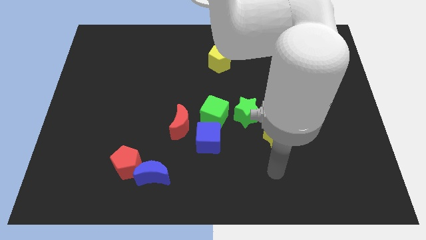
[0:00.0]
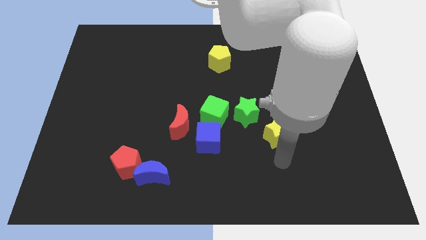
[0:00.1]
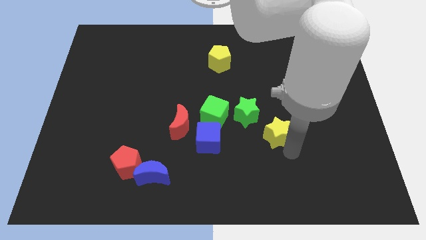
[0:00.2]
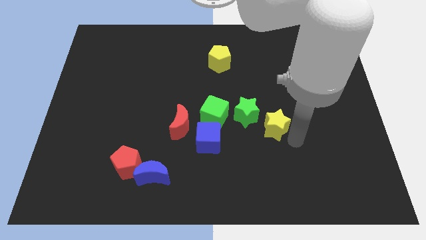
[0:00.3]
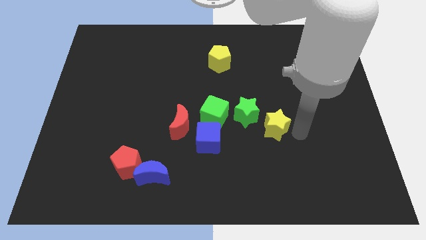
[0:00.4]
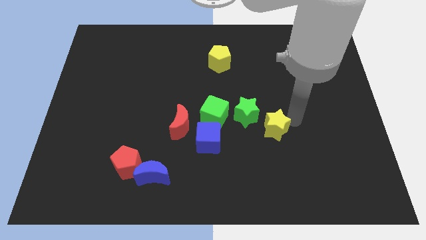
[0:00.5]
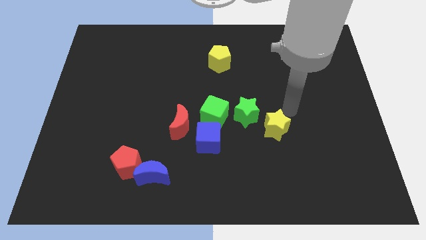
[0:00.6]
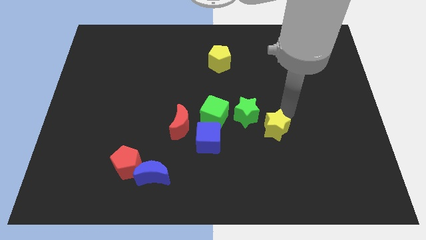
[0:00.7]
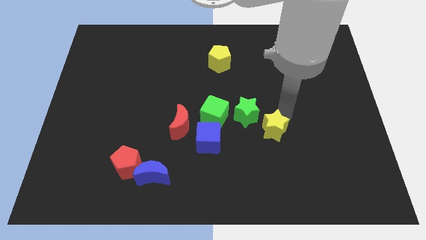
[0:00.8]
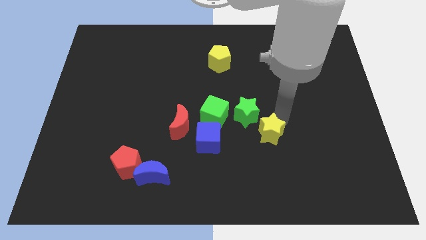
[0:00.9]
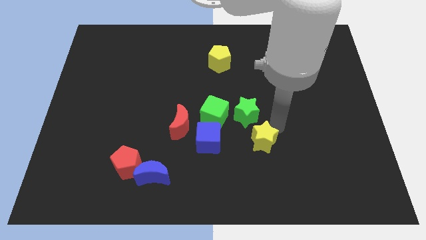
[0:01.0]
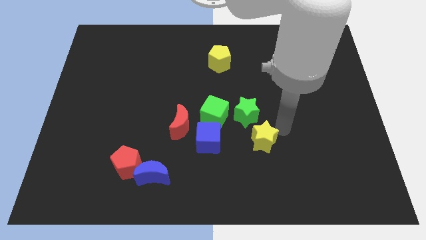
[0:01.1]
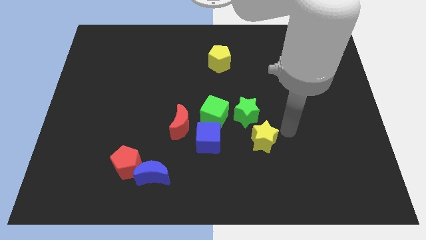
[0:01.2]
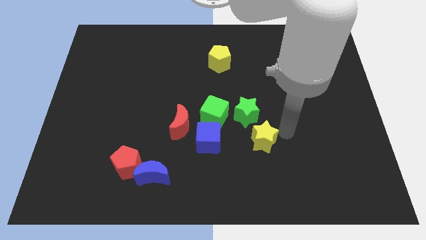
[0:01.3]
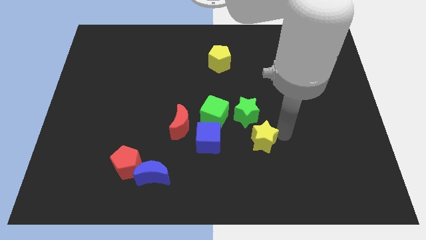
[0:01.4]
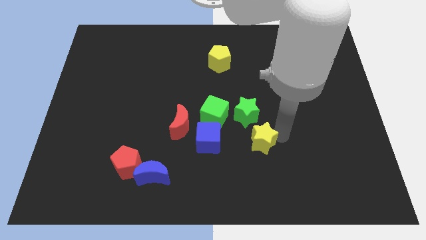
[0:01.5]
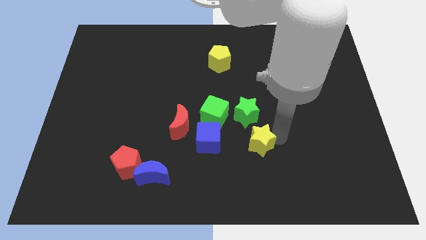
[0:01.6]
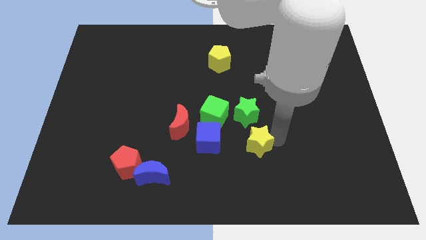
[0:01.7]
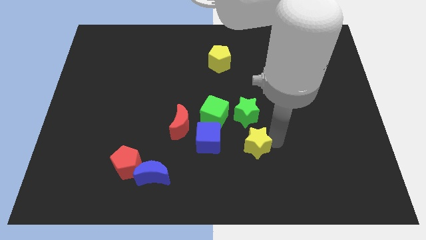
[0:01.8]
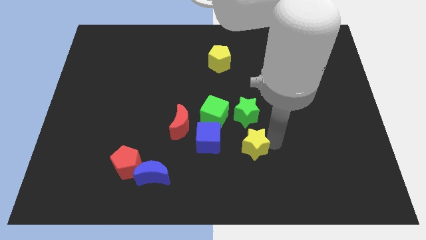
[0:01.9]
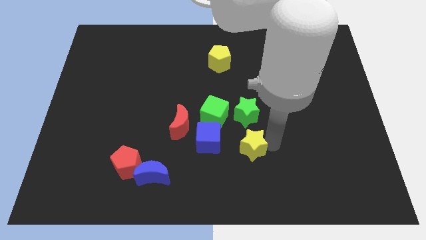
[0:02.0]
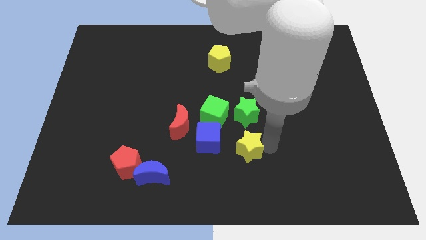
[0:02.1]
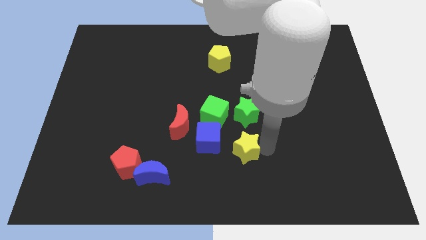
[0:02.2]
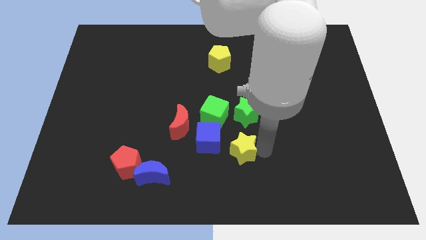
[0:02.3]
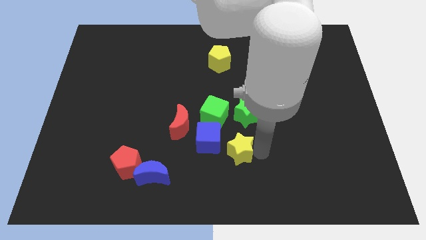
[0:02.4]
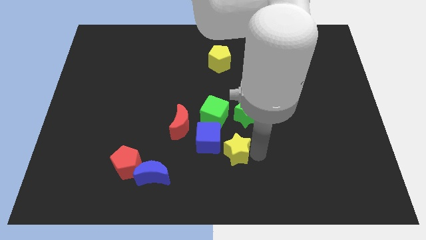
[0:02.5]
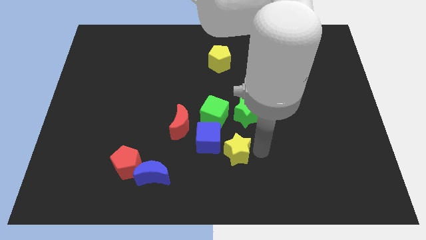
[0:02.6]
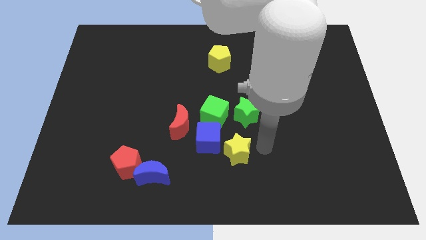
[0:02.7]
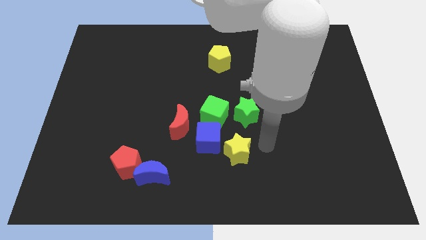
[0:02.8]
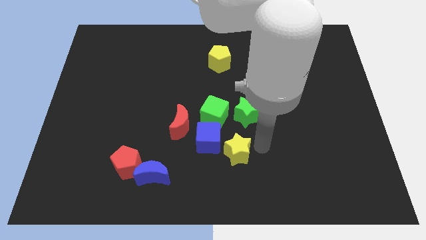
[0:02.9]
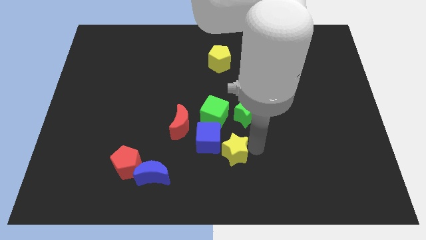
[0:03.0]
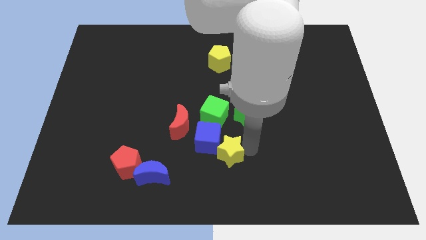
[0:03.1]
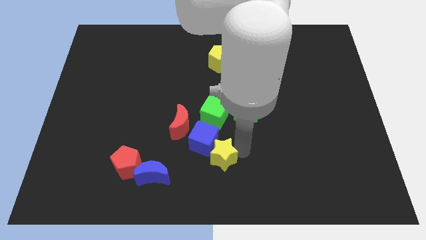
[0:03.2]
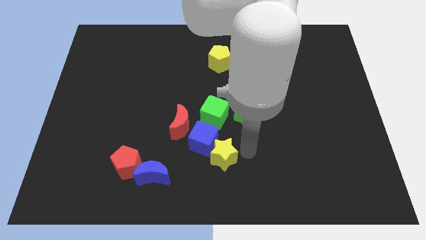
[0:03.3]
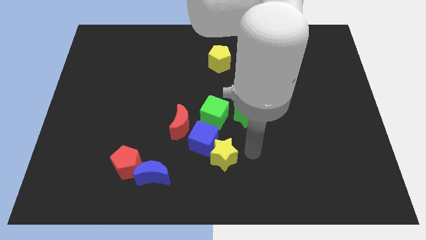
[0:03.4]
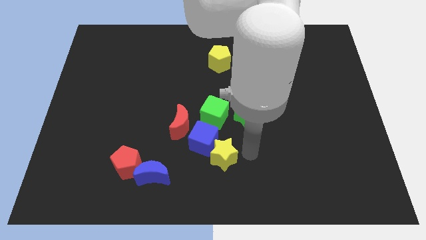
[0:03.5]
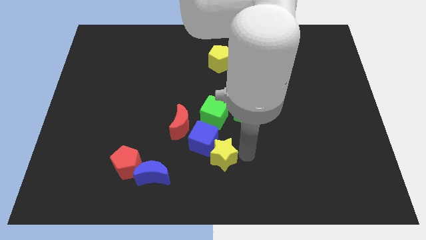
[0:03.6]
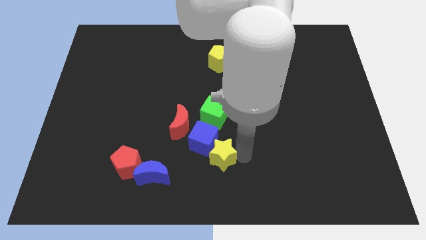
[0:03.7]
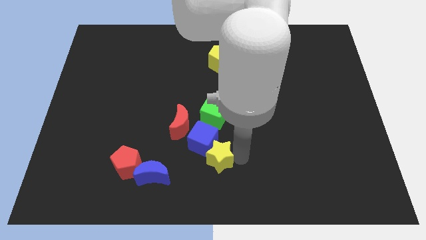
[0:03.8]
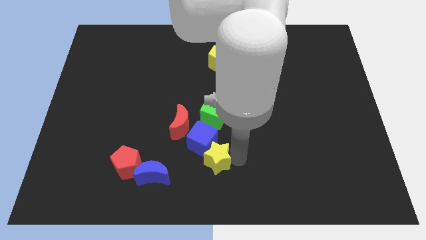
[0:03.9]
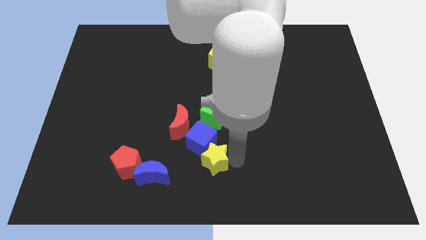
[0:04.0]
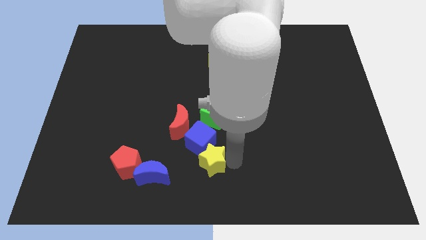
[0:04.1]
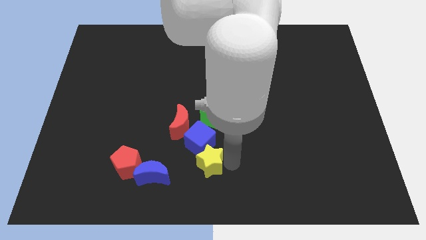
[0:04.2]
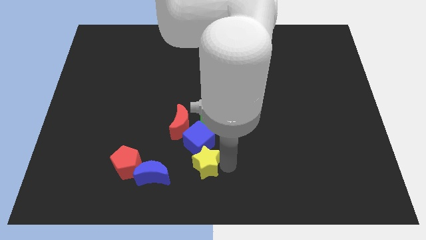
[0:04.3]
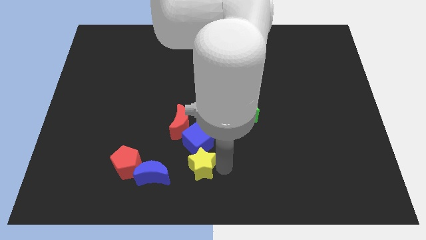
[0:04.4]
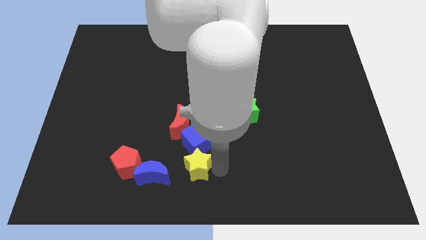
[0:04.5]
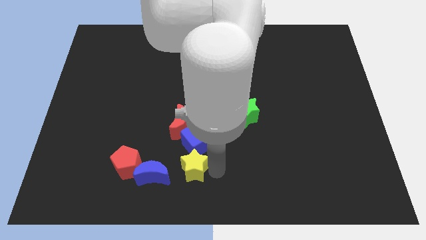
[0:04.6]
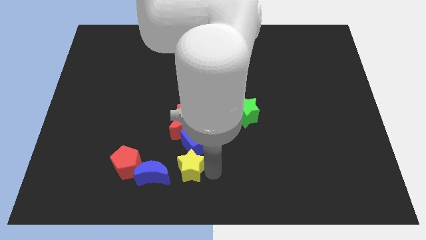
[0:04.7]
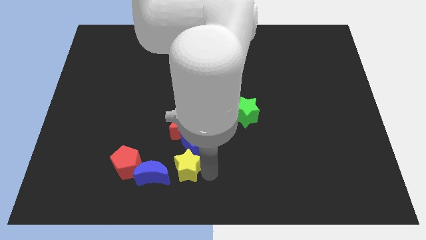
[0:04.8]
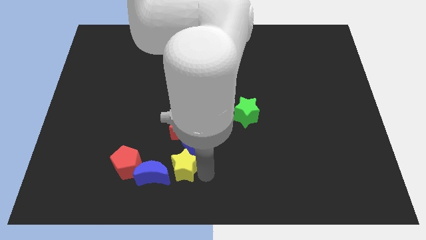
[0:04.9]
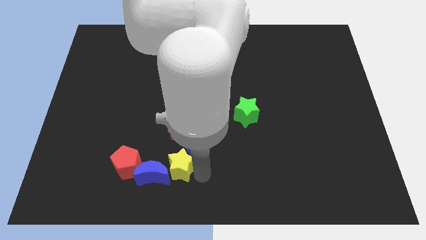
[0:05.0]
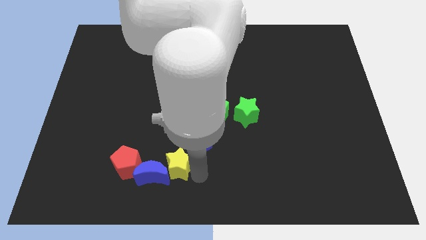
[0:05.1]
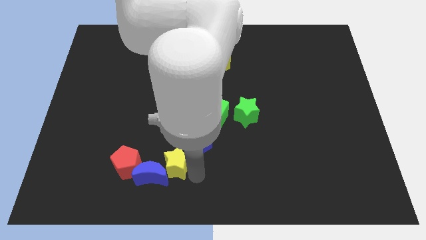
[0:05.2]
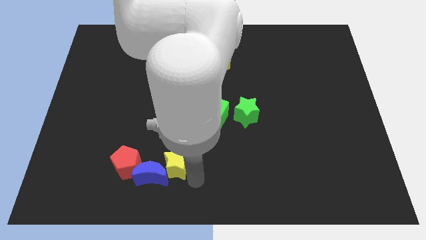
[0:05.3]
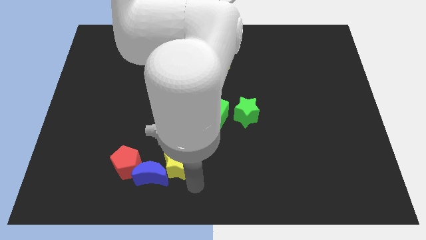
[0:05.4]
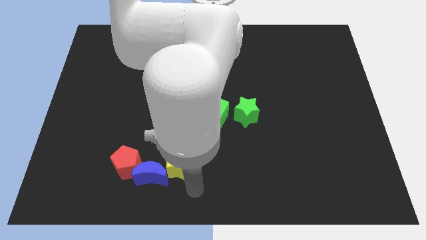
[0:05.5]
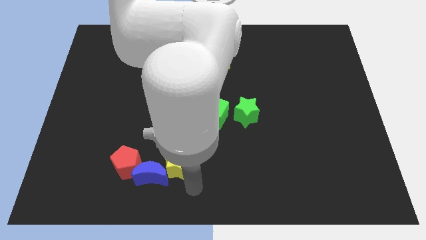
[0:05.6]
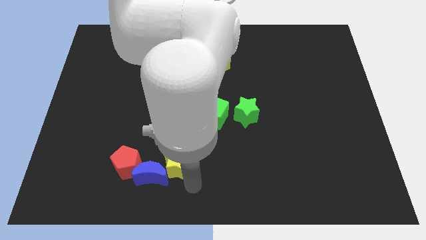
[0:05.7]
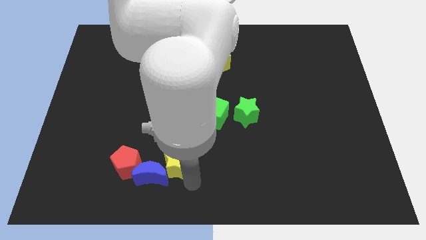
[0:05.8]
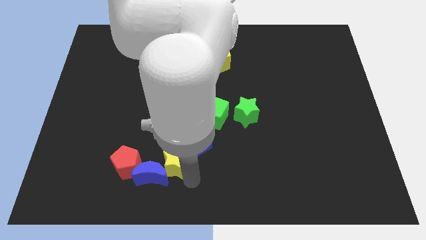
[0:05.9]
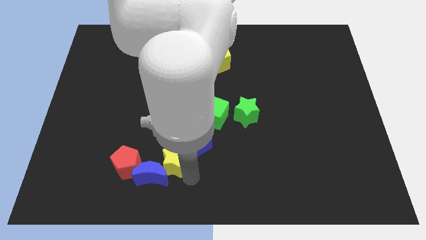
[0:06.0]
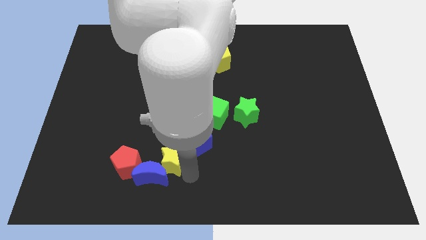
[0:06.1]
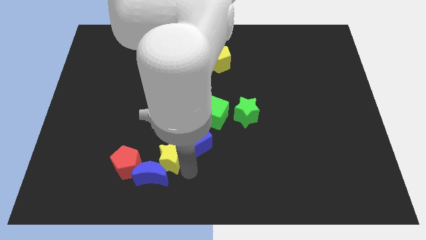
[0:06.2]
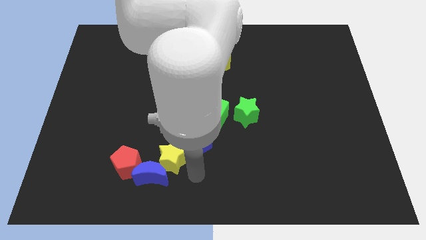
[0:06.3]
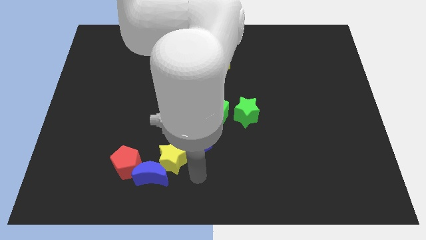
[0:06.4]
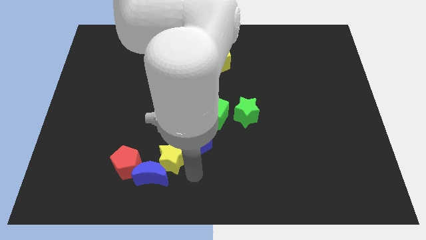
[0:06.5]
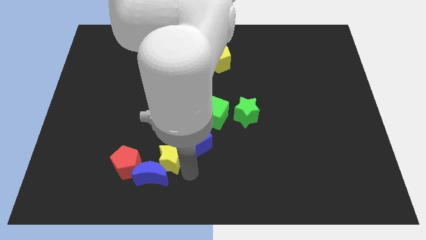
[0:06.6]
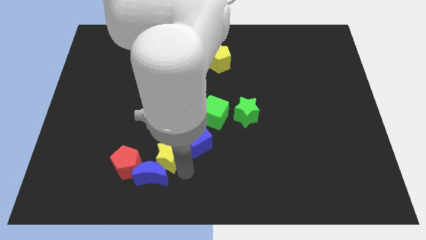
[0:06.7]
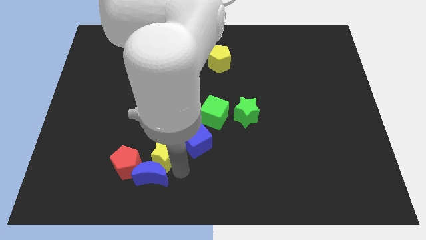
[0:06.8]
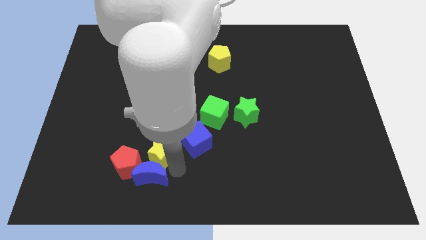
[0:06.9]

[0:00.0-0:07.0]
push the yellow star to the top left of the blue moon
